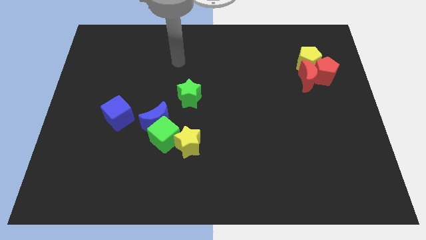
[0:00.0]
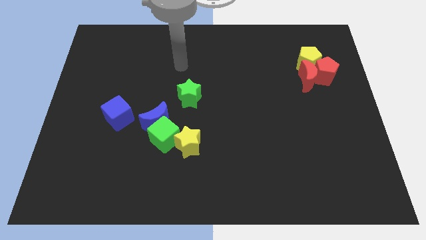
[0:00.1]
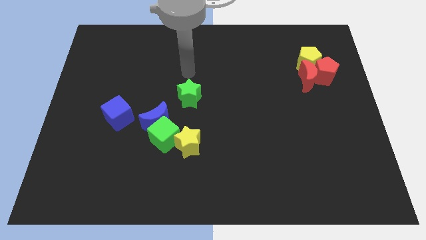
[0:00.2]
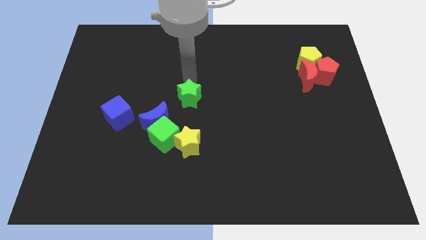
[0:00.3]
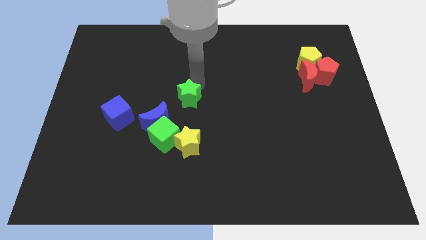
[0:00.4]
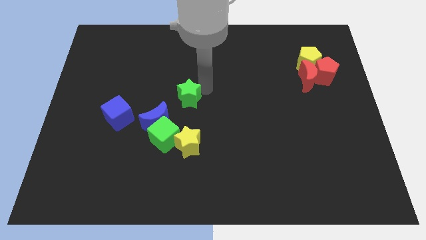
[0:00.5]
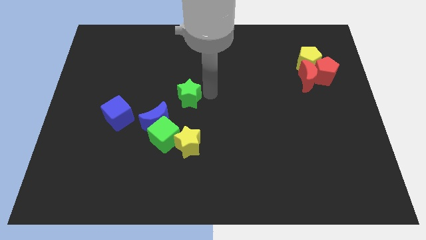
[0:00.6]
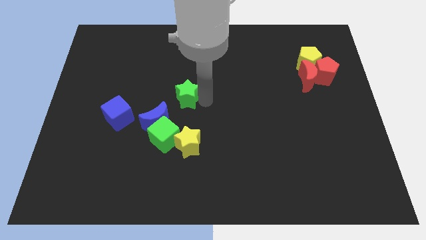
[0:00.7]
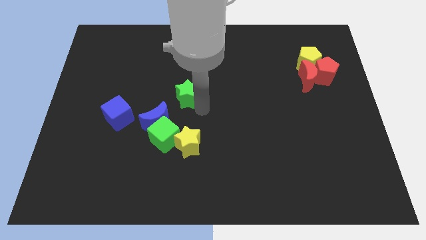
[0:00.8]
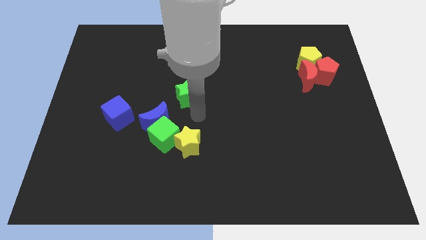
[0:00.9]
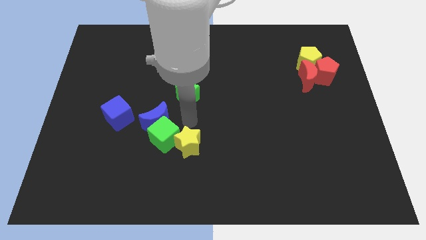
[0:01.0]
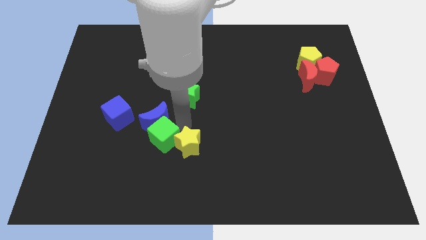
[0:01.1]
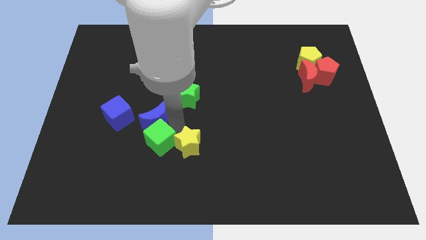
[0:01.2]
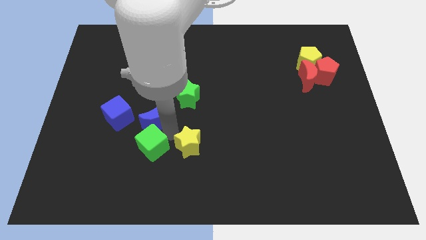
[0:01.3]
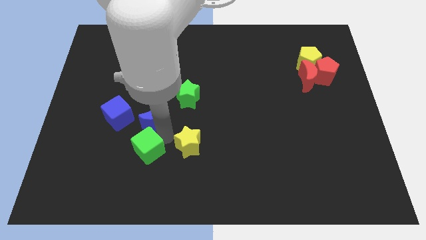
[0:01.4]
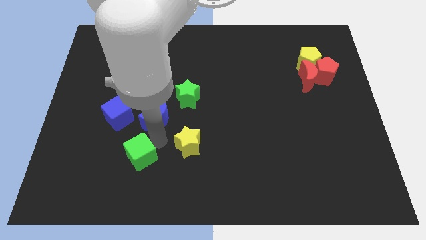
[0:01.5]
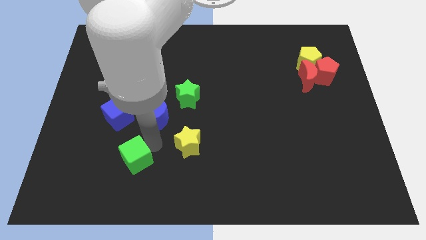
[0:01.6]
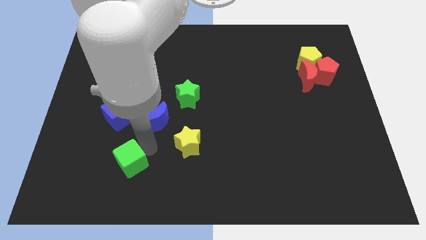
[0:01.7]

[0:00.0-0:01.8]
pull the green cube apart from the blue moon and yellow star

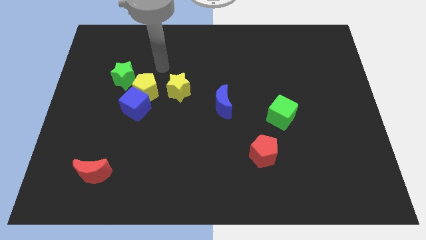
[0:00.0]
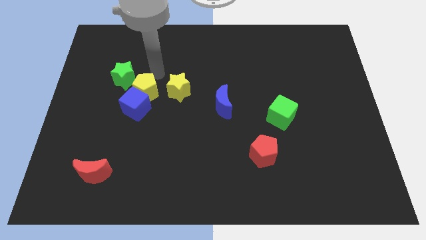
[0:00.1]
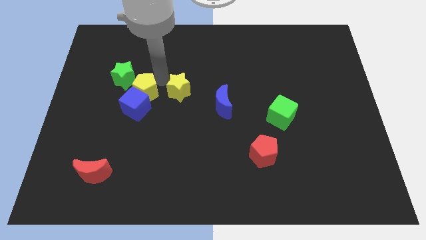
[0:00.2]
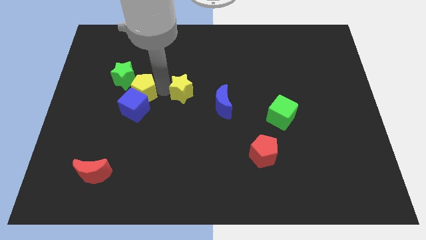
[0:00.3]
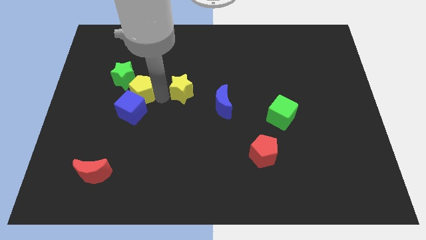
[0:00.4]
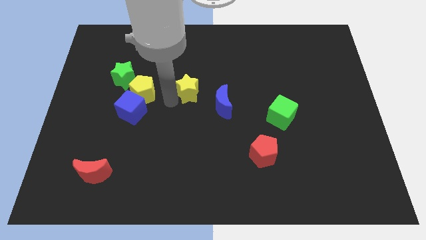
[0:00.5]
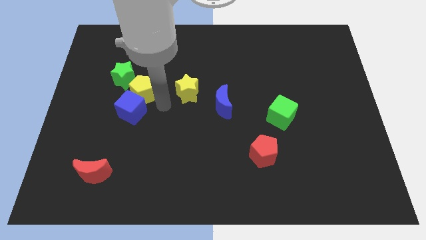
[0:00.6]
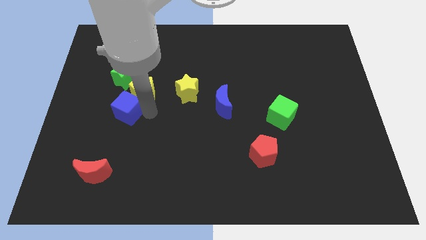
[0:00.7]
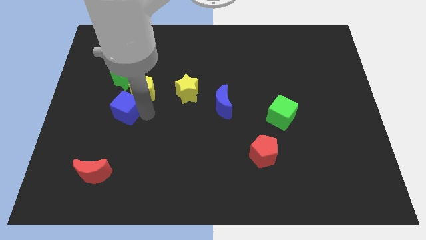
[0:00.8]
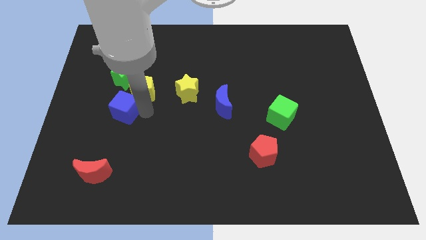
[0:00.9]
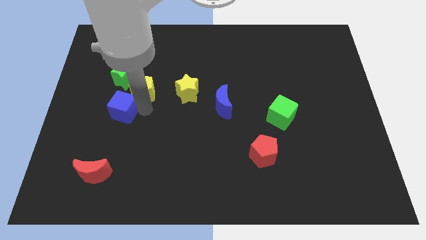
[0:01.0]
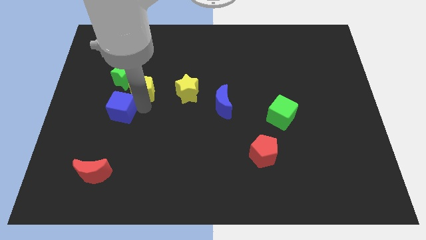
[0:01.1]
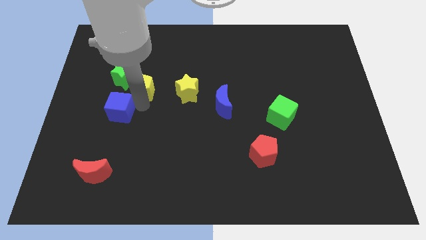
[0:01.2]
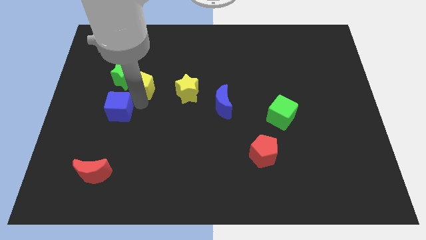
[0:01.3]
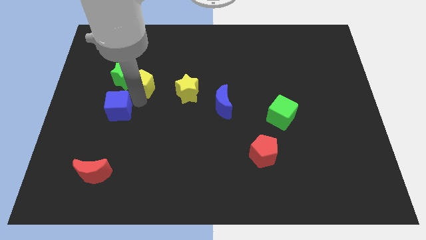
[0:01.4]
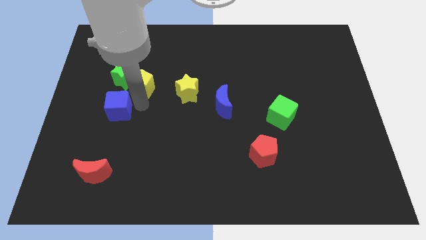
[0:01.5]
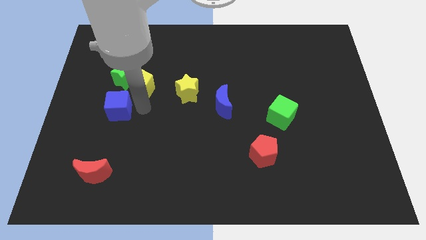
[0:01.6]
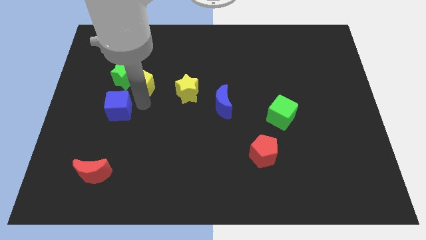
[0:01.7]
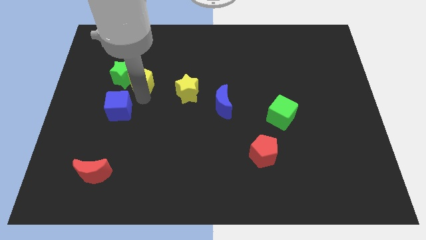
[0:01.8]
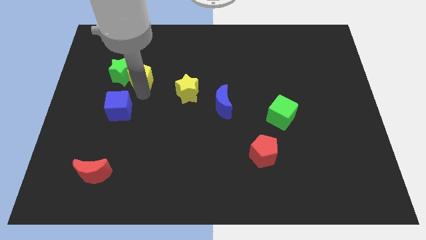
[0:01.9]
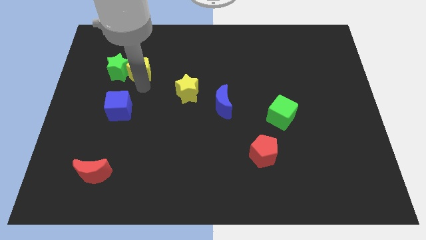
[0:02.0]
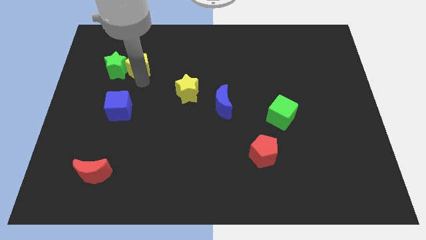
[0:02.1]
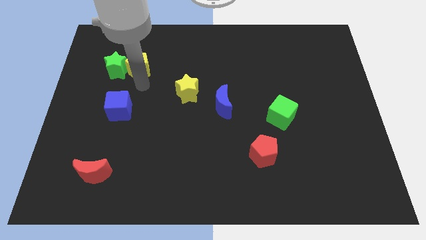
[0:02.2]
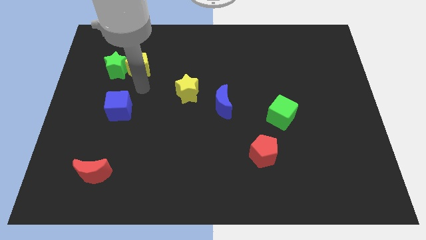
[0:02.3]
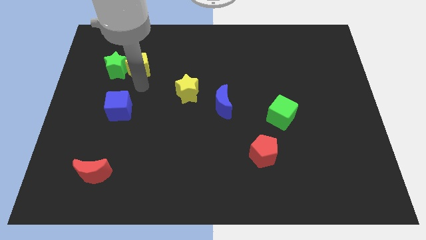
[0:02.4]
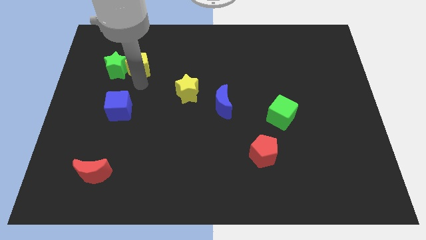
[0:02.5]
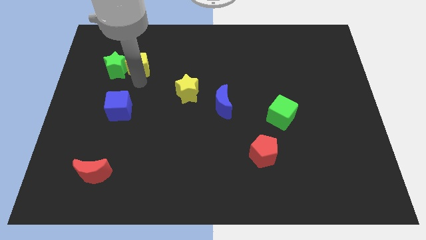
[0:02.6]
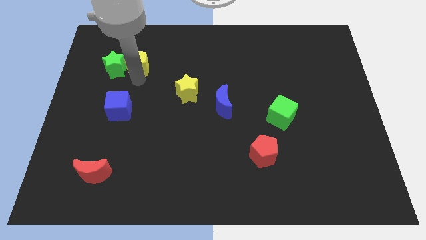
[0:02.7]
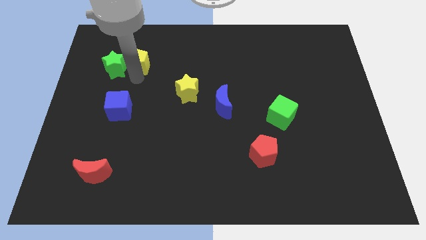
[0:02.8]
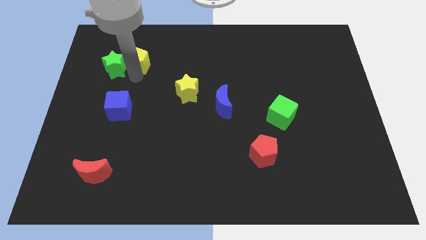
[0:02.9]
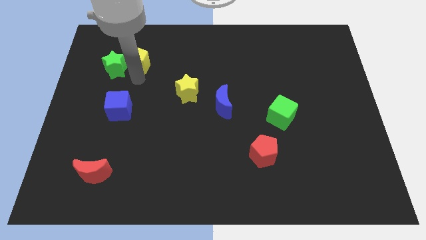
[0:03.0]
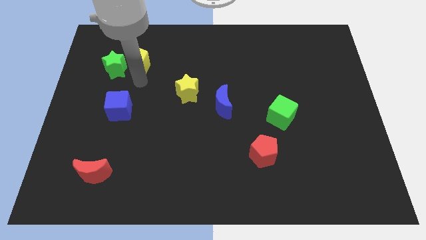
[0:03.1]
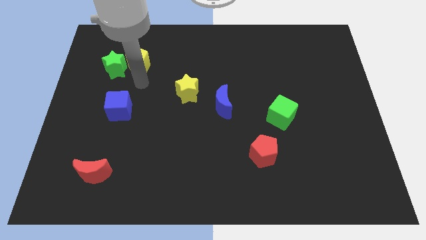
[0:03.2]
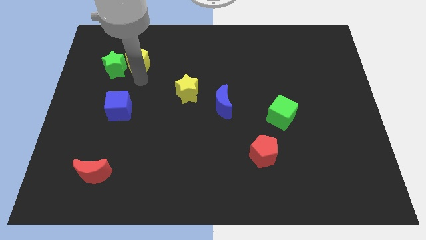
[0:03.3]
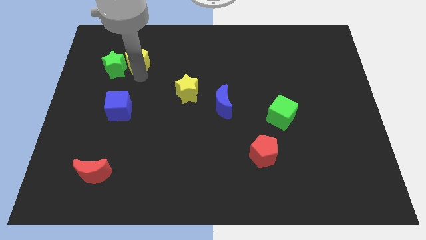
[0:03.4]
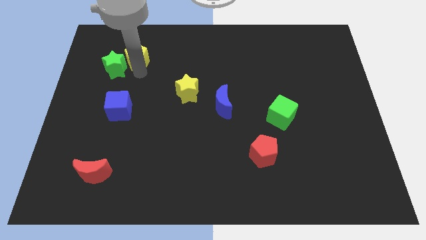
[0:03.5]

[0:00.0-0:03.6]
separate the yellow pentagon from the blue cube, green star, and yellow star

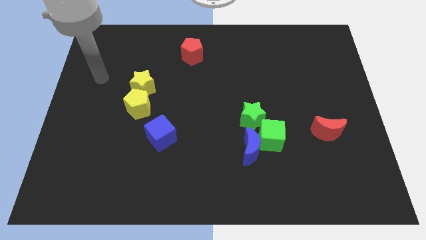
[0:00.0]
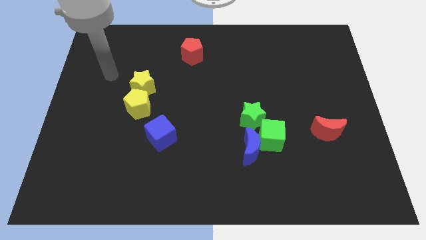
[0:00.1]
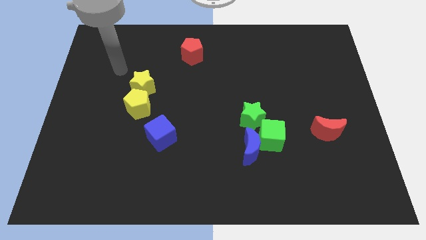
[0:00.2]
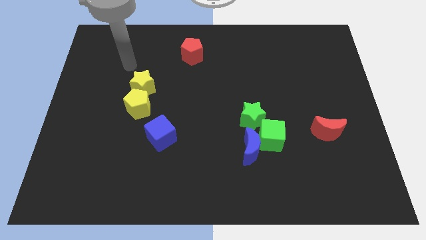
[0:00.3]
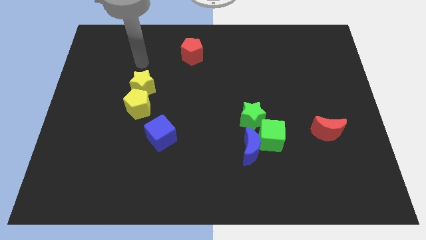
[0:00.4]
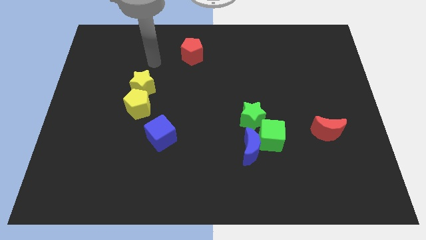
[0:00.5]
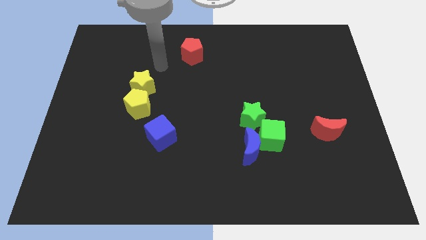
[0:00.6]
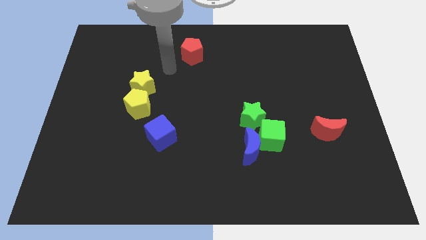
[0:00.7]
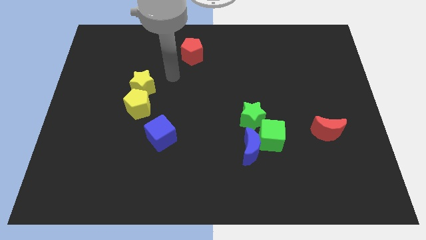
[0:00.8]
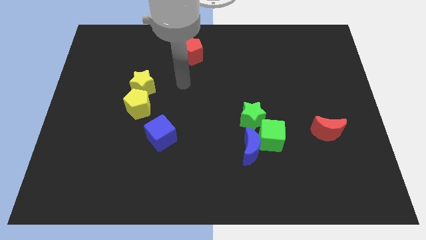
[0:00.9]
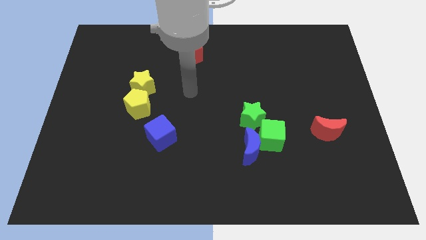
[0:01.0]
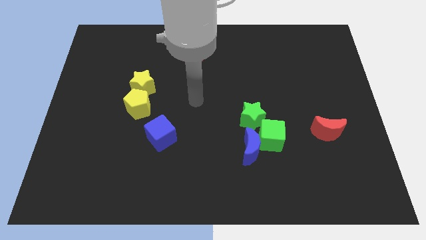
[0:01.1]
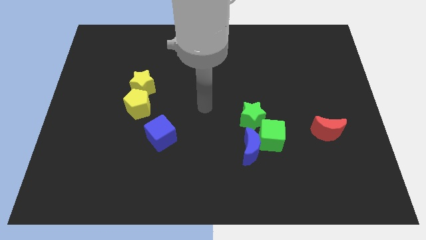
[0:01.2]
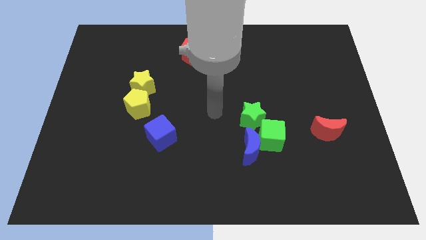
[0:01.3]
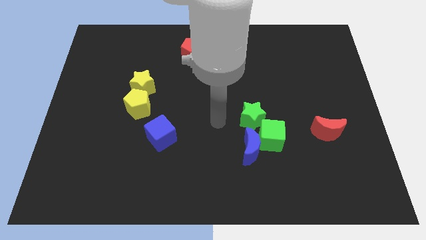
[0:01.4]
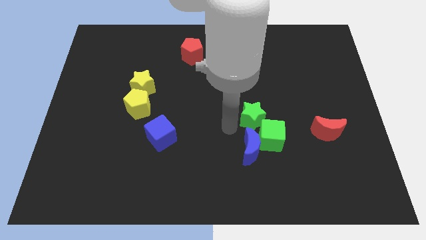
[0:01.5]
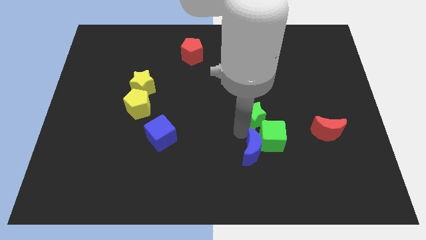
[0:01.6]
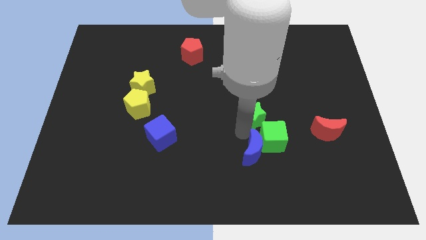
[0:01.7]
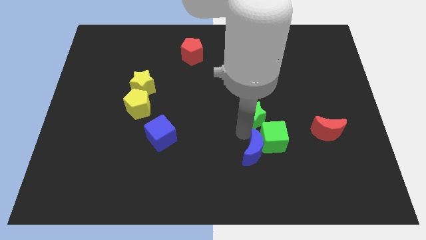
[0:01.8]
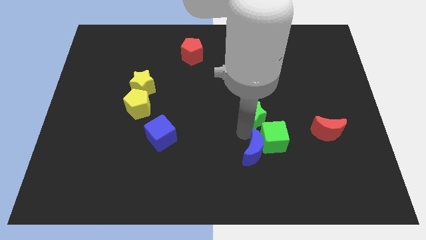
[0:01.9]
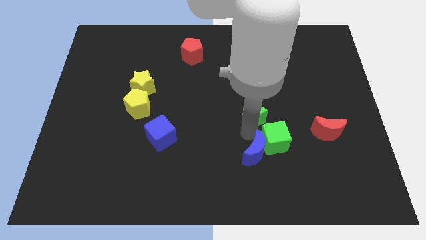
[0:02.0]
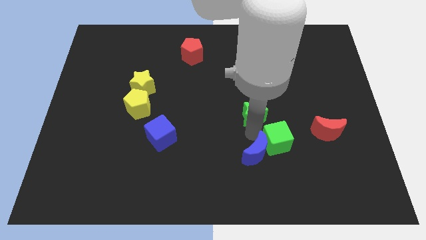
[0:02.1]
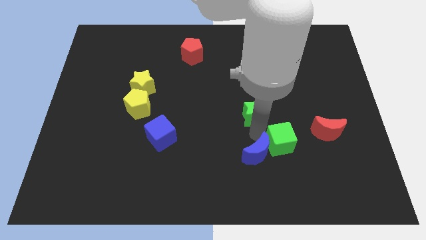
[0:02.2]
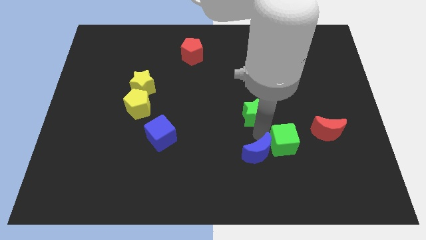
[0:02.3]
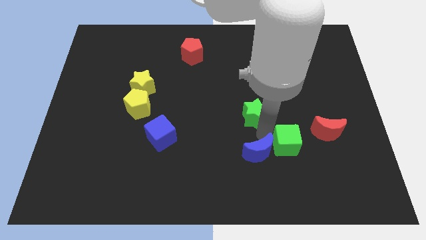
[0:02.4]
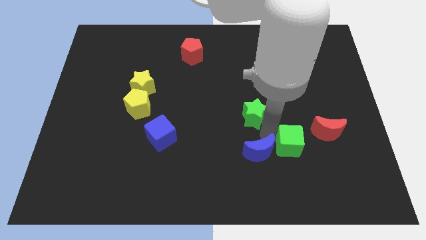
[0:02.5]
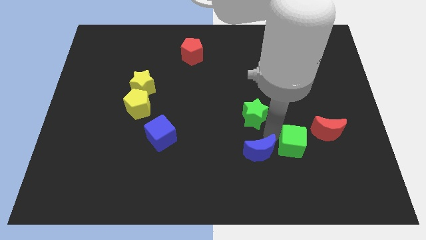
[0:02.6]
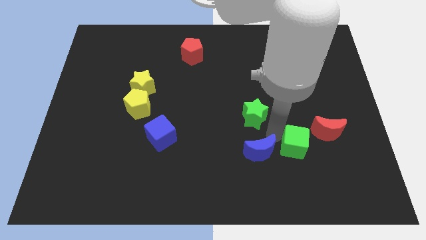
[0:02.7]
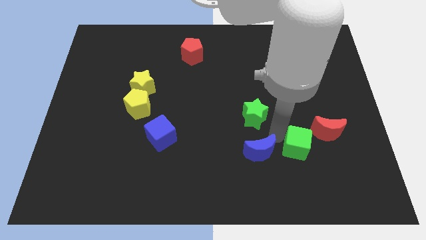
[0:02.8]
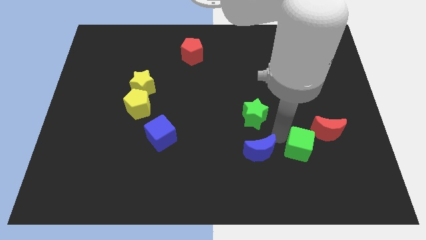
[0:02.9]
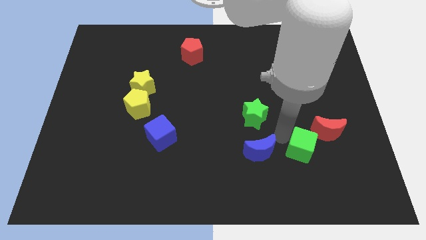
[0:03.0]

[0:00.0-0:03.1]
pull the green cube apart from the blue moon and green star

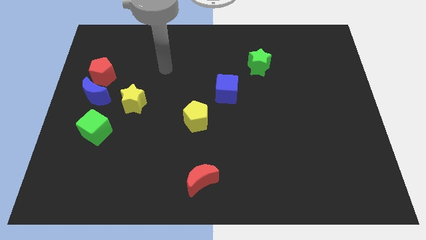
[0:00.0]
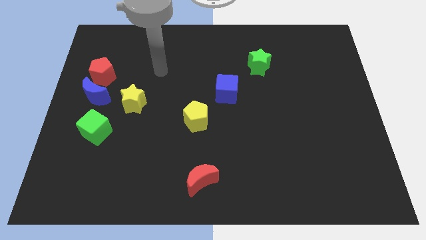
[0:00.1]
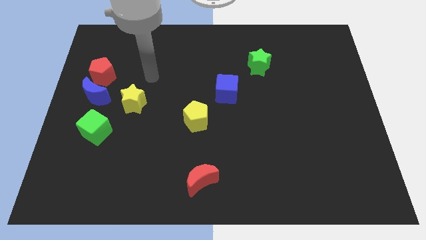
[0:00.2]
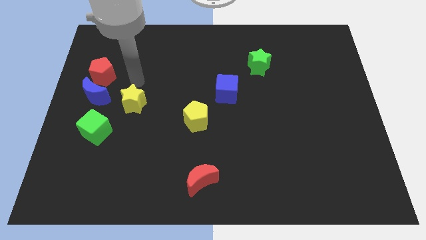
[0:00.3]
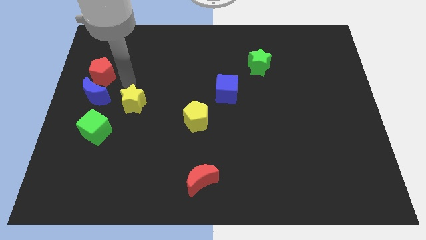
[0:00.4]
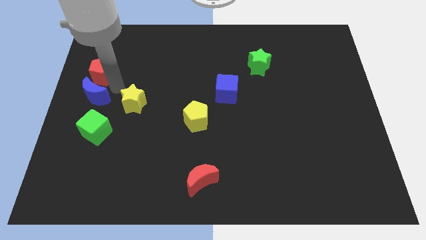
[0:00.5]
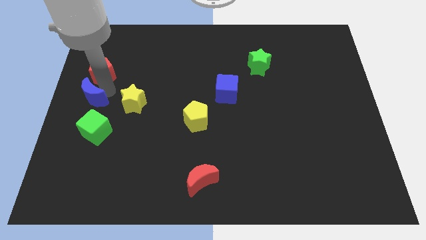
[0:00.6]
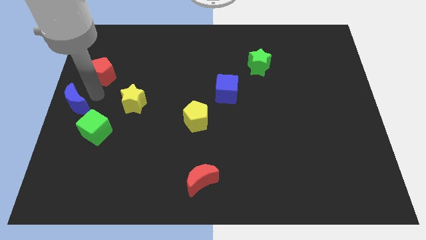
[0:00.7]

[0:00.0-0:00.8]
move the red pentagon away from the blue moon
